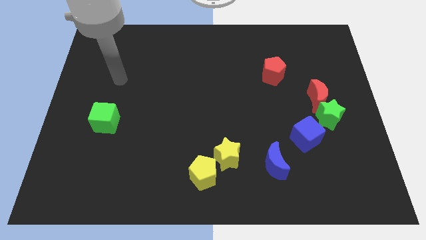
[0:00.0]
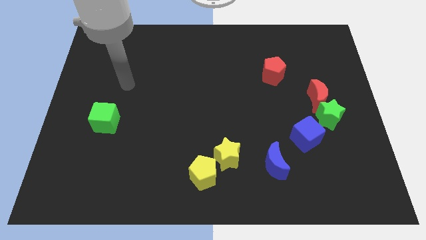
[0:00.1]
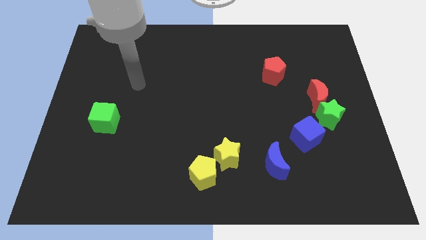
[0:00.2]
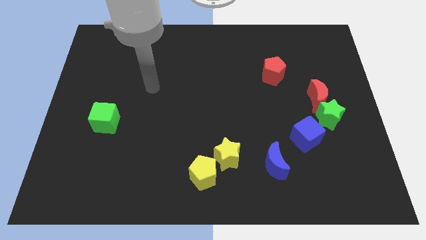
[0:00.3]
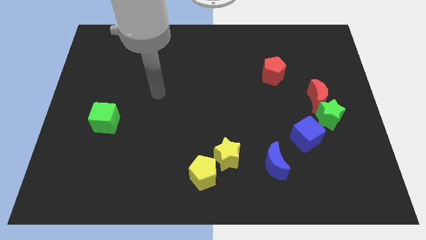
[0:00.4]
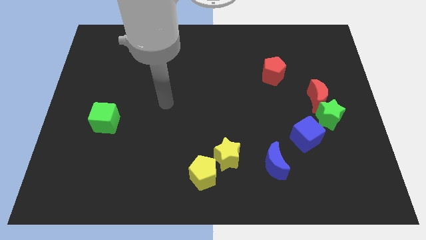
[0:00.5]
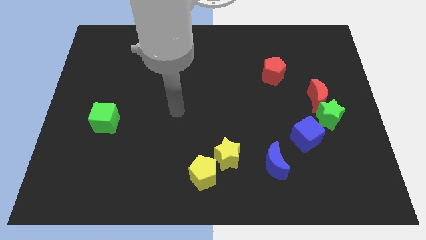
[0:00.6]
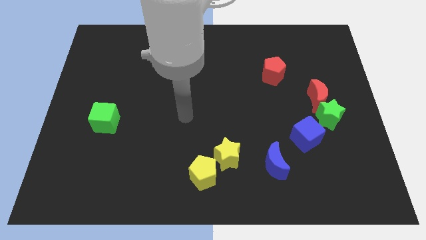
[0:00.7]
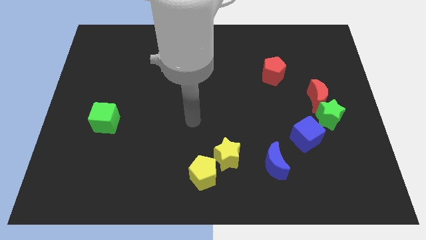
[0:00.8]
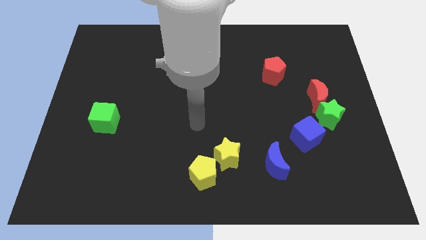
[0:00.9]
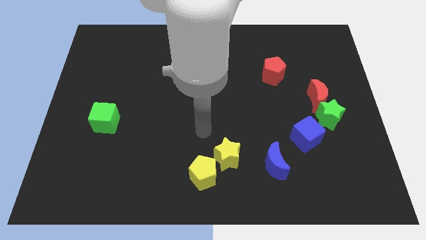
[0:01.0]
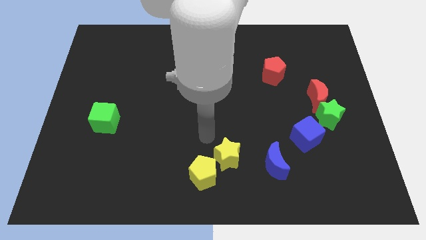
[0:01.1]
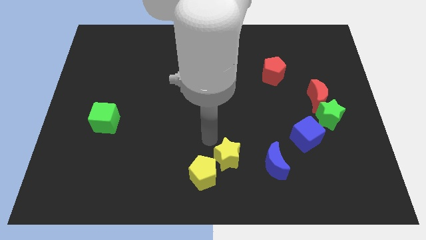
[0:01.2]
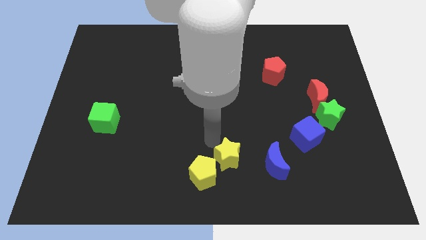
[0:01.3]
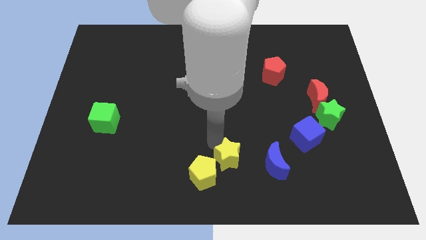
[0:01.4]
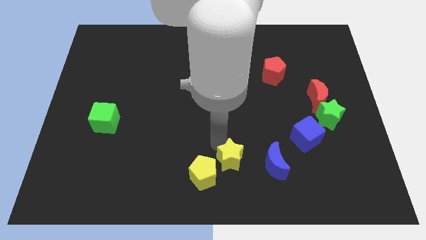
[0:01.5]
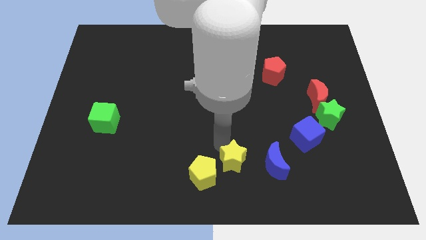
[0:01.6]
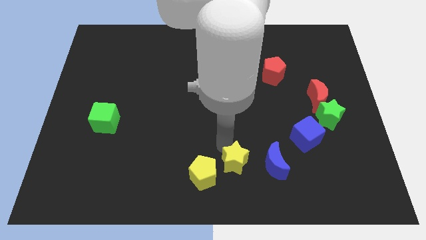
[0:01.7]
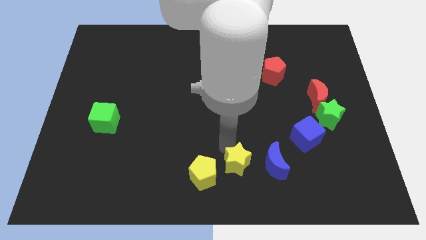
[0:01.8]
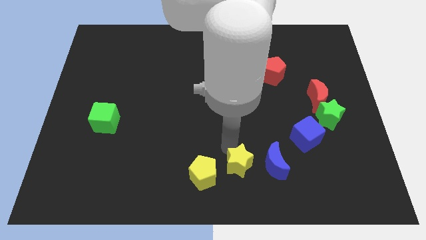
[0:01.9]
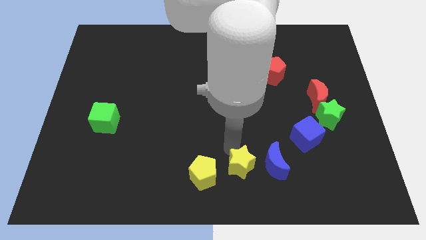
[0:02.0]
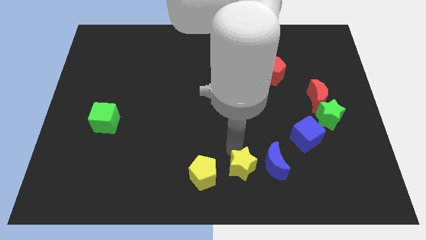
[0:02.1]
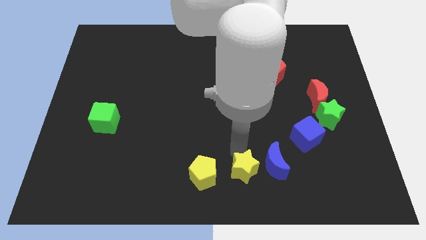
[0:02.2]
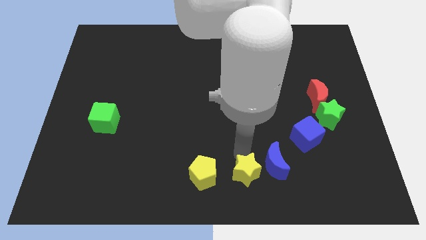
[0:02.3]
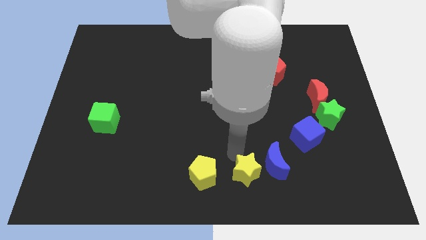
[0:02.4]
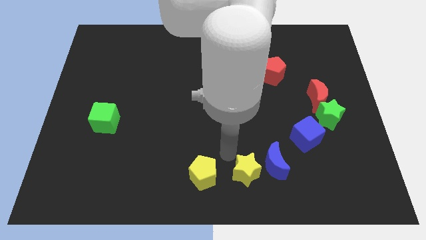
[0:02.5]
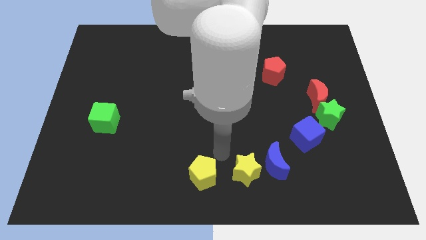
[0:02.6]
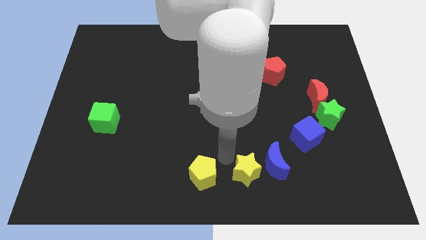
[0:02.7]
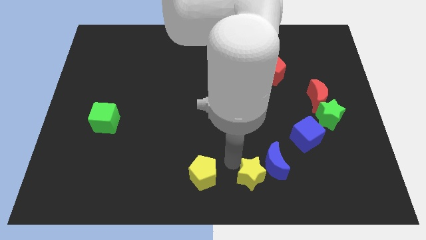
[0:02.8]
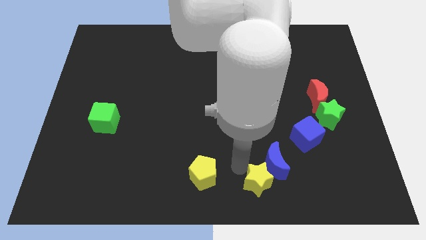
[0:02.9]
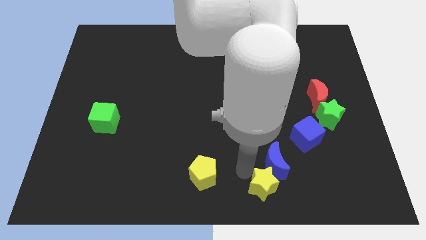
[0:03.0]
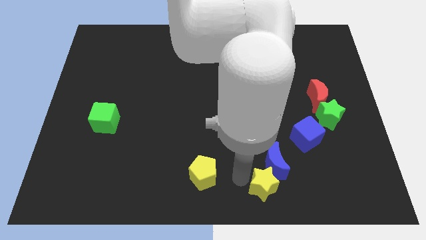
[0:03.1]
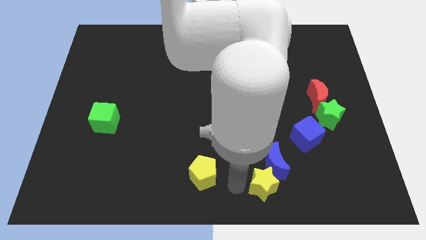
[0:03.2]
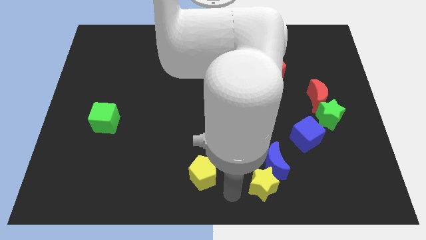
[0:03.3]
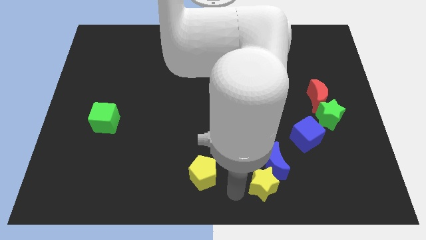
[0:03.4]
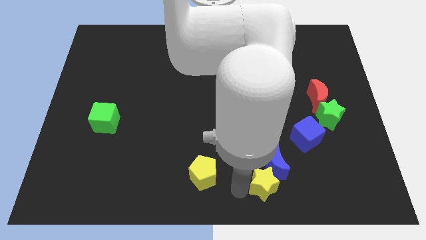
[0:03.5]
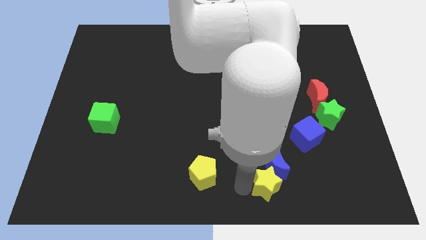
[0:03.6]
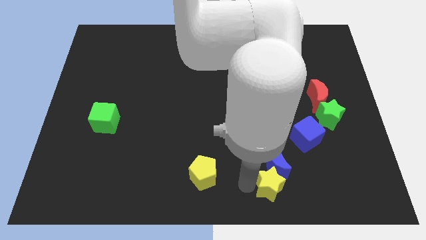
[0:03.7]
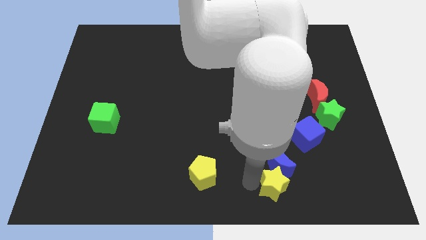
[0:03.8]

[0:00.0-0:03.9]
slide the yellow star right somewhat

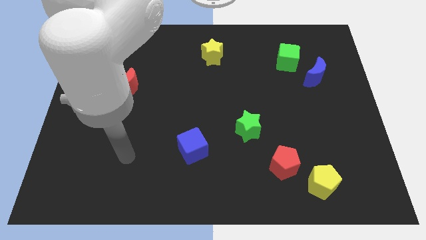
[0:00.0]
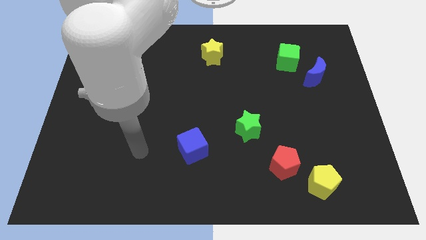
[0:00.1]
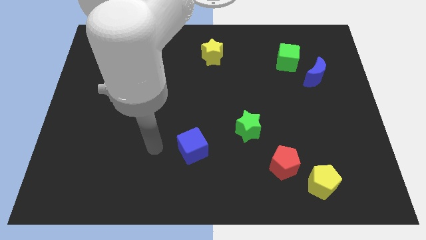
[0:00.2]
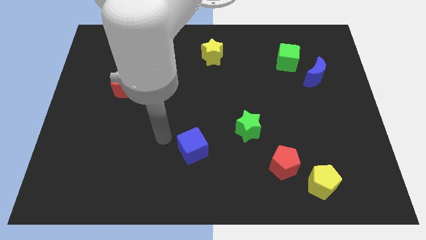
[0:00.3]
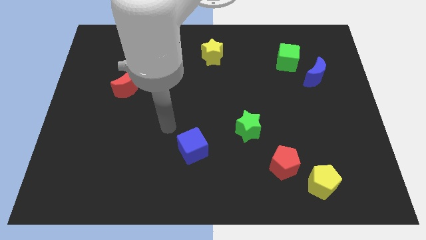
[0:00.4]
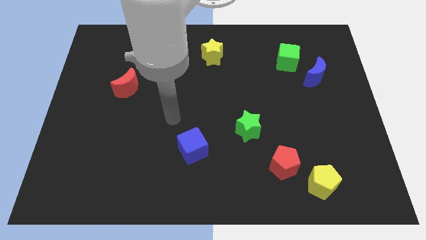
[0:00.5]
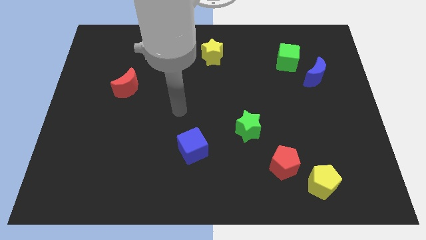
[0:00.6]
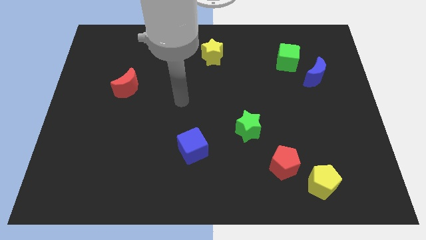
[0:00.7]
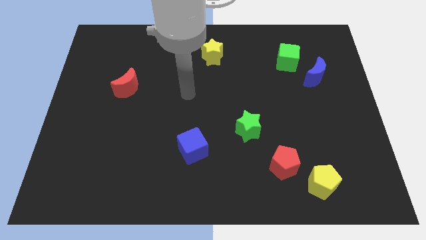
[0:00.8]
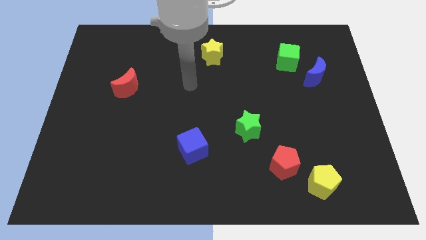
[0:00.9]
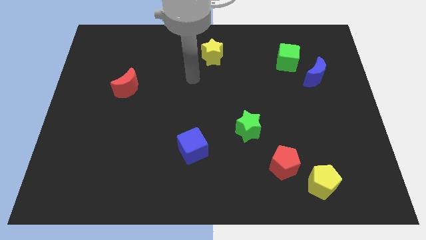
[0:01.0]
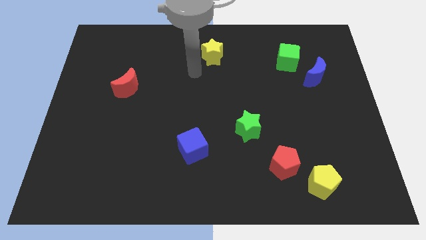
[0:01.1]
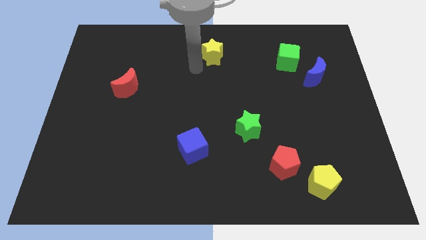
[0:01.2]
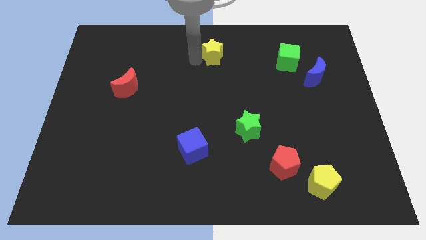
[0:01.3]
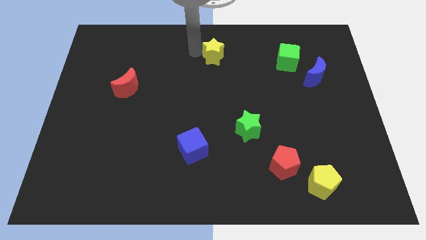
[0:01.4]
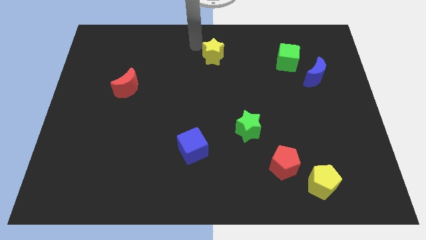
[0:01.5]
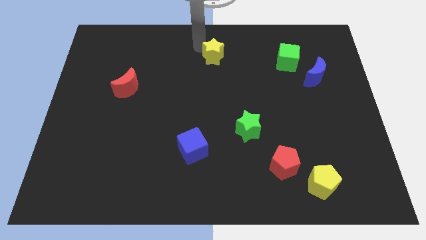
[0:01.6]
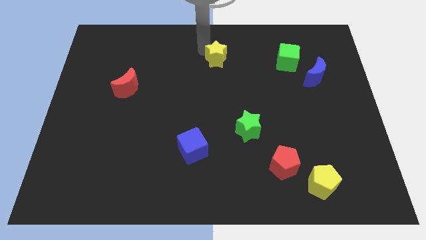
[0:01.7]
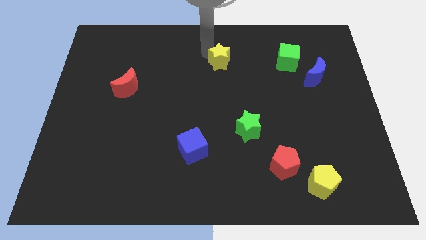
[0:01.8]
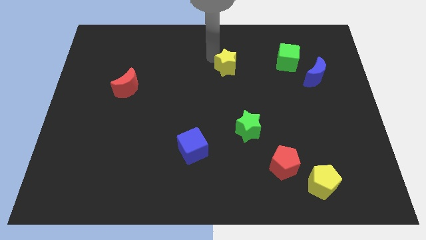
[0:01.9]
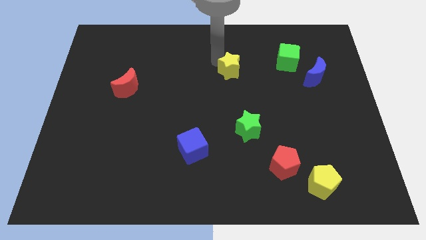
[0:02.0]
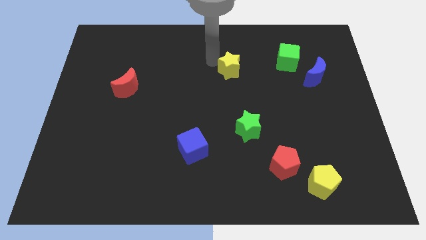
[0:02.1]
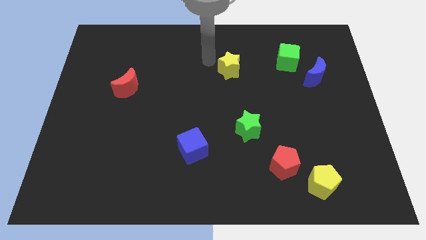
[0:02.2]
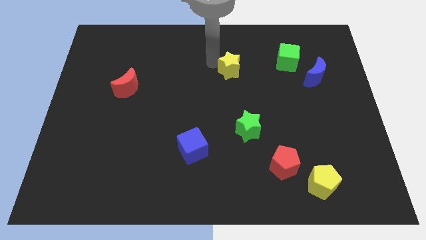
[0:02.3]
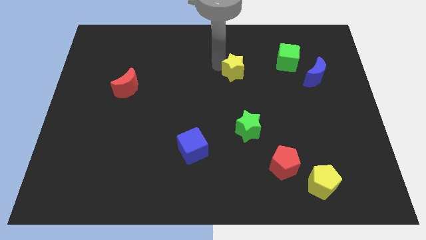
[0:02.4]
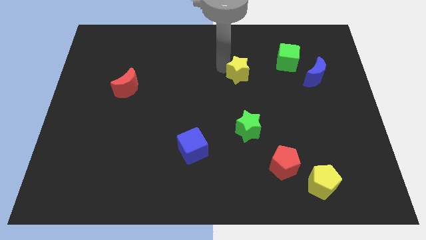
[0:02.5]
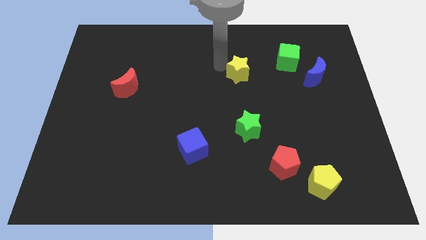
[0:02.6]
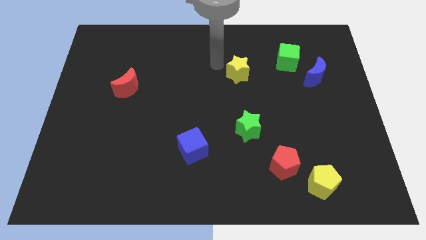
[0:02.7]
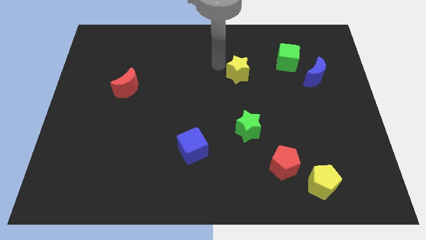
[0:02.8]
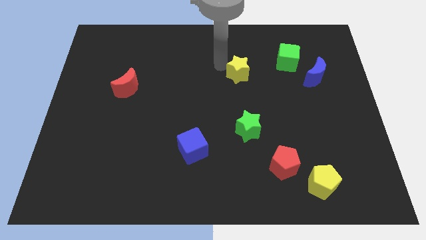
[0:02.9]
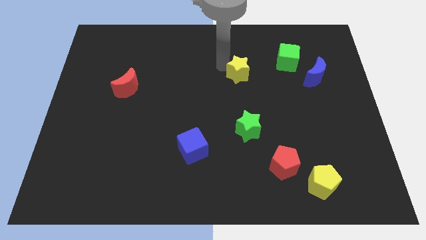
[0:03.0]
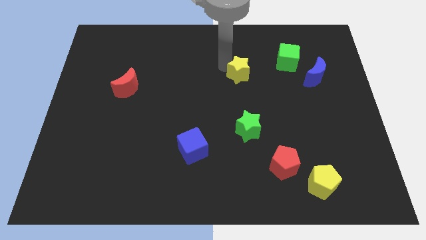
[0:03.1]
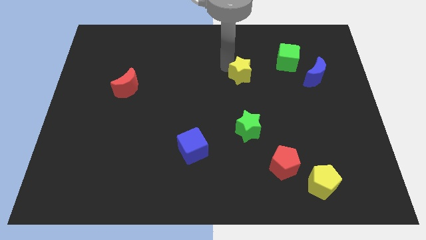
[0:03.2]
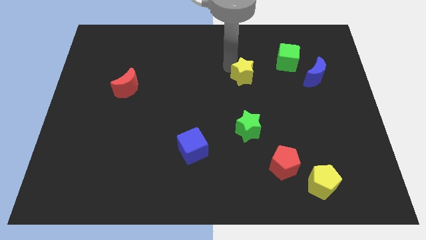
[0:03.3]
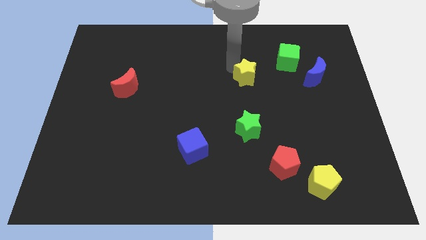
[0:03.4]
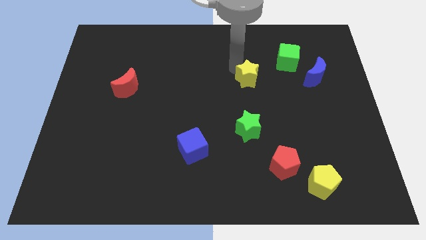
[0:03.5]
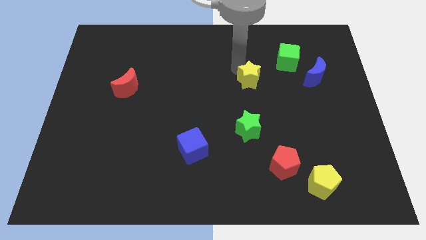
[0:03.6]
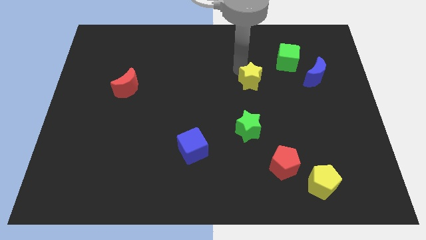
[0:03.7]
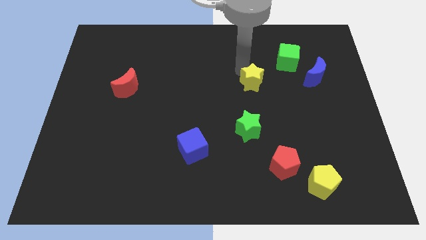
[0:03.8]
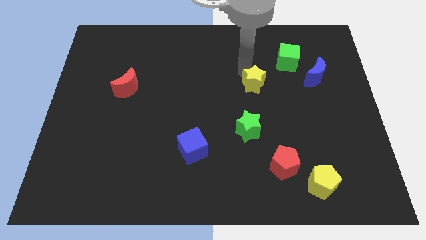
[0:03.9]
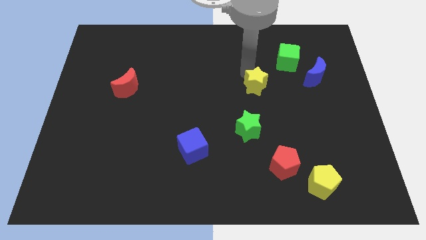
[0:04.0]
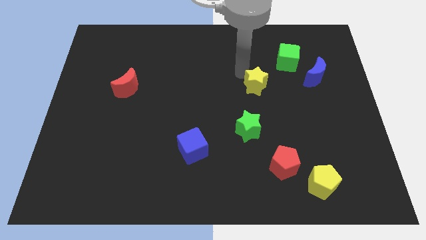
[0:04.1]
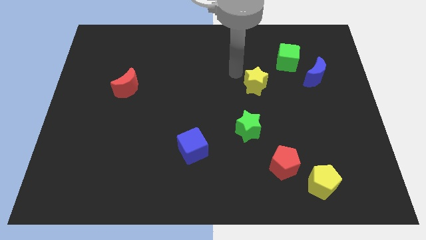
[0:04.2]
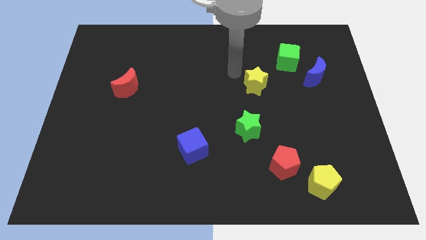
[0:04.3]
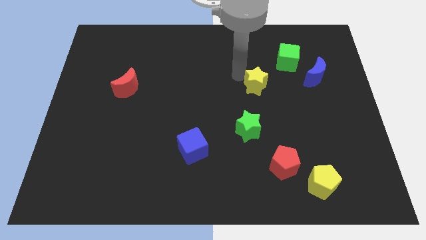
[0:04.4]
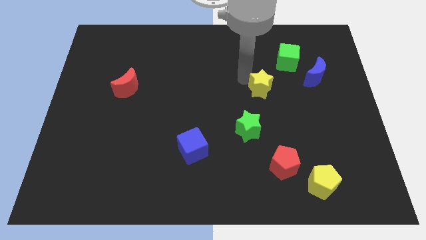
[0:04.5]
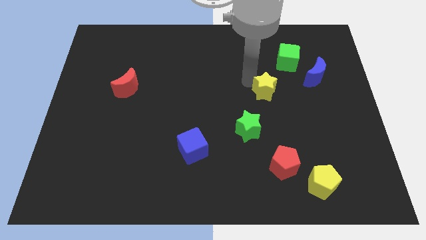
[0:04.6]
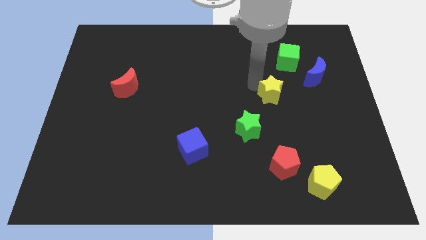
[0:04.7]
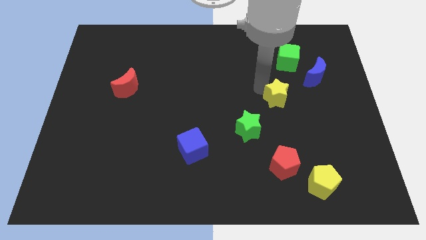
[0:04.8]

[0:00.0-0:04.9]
push the yellow star down and then to the right

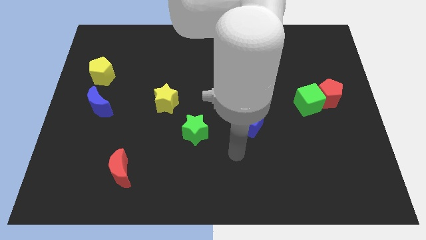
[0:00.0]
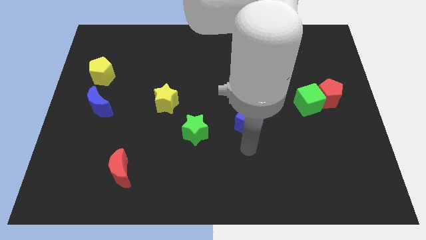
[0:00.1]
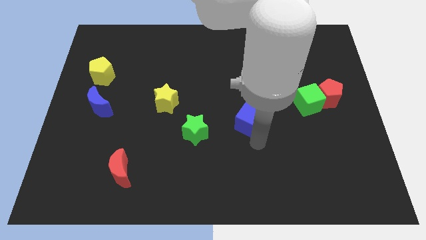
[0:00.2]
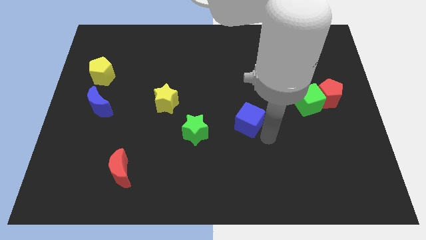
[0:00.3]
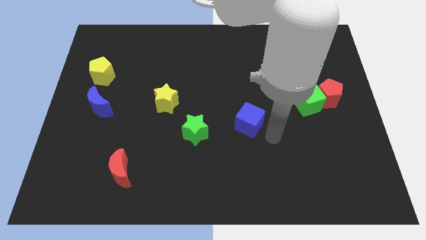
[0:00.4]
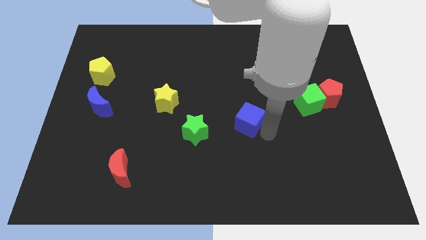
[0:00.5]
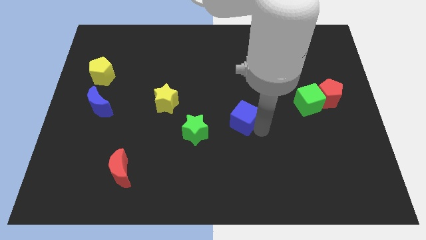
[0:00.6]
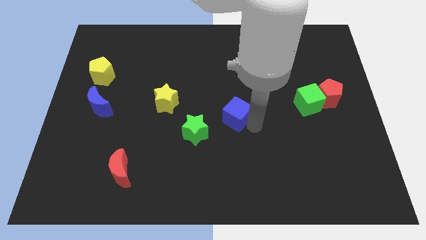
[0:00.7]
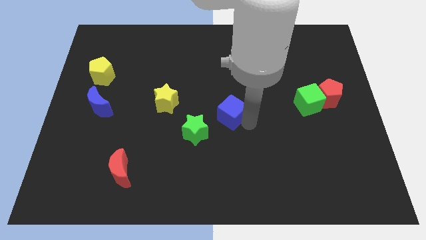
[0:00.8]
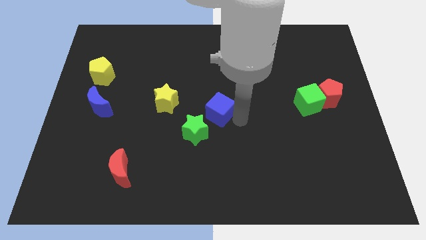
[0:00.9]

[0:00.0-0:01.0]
move the blue cube a bit up and left diagonally
